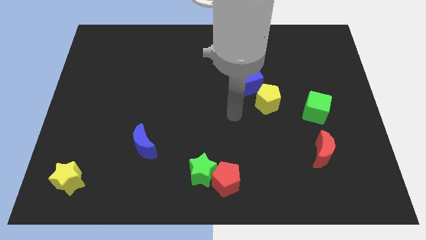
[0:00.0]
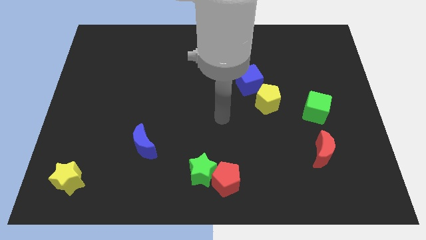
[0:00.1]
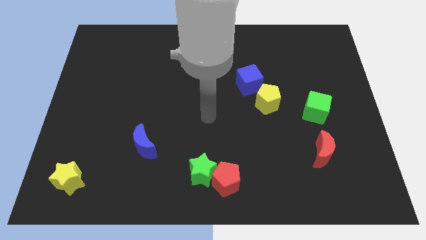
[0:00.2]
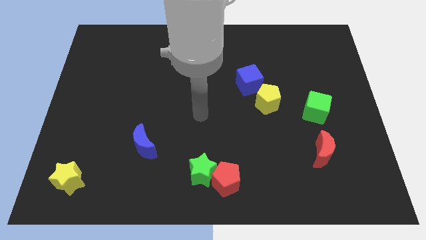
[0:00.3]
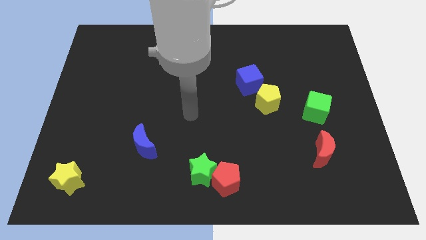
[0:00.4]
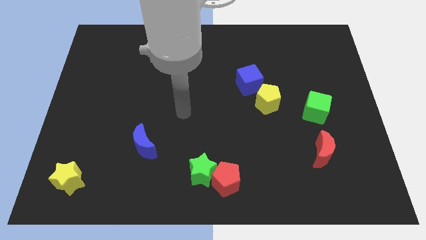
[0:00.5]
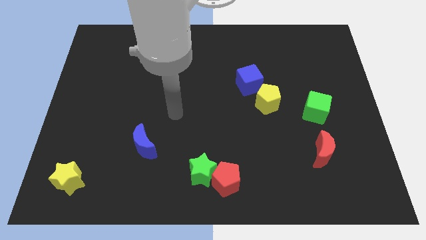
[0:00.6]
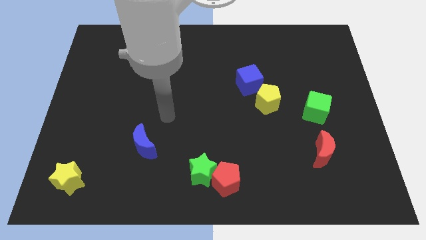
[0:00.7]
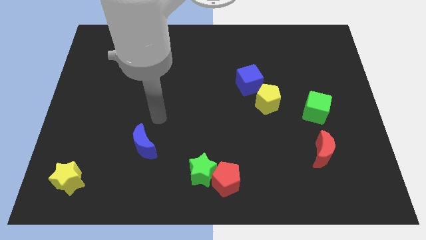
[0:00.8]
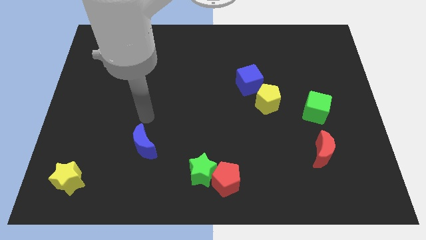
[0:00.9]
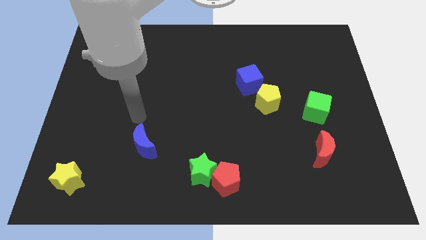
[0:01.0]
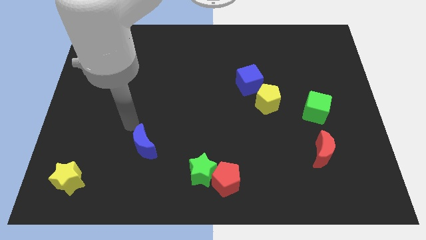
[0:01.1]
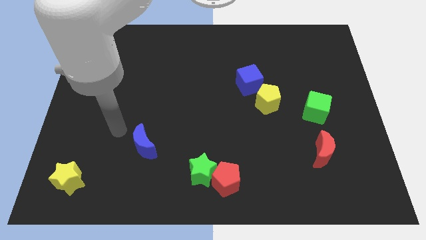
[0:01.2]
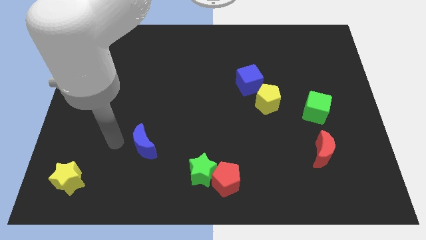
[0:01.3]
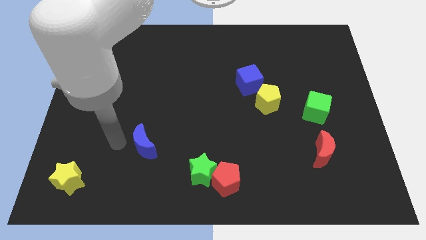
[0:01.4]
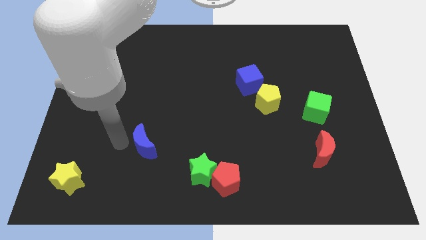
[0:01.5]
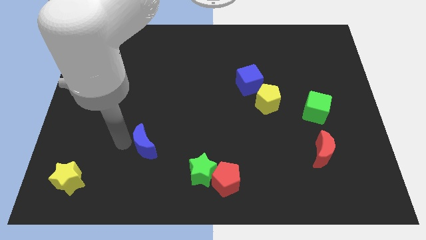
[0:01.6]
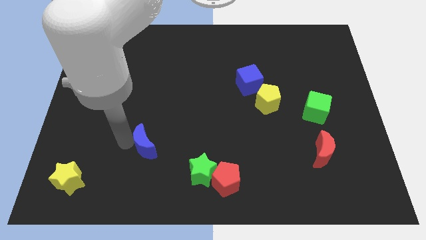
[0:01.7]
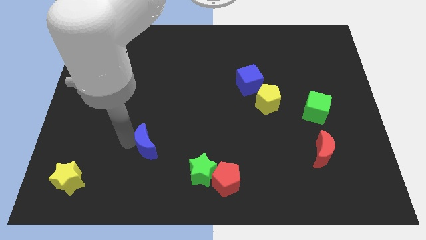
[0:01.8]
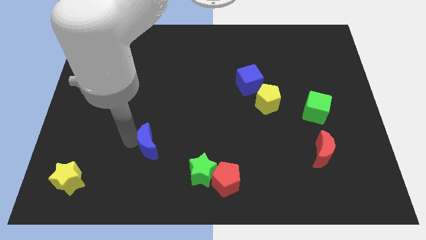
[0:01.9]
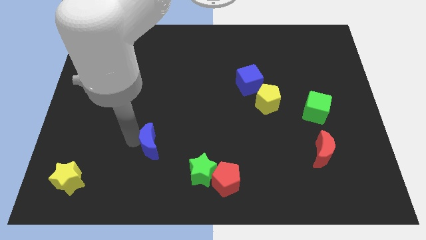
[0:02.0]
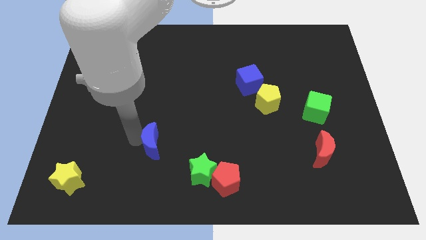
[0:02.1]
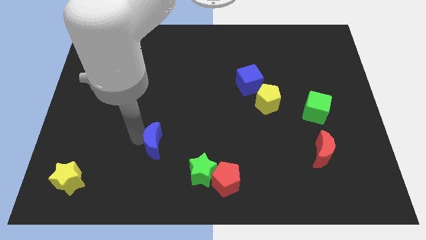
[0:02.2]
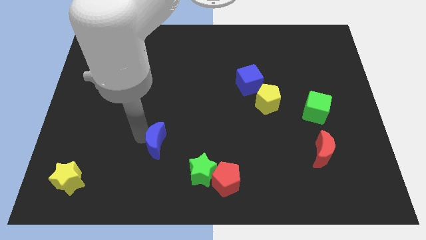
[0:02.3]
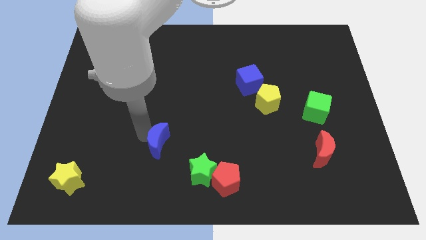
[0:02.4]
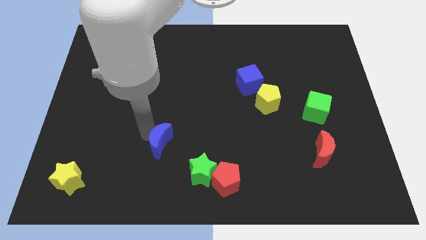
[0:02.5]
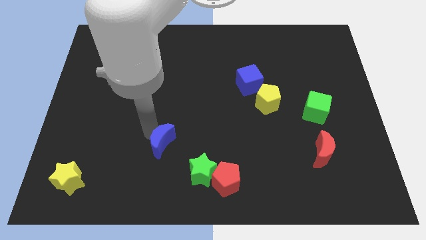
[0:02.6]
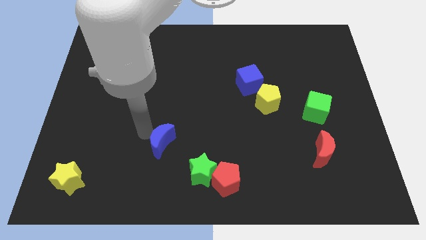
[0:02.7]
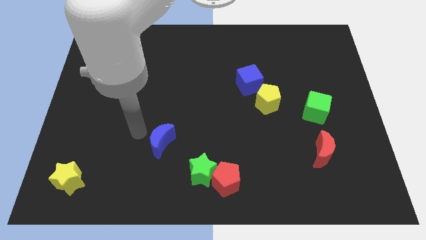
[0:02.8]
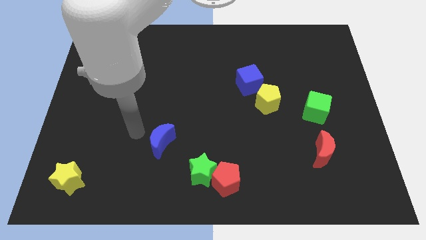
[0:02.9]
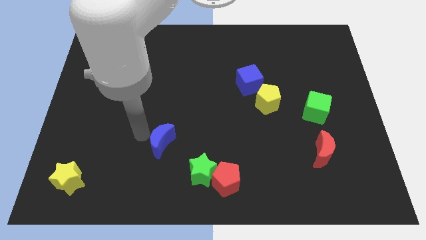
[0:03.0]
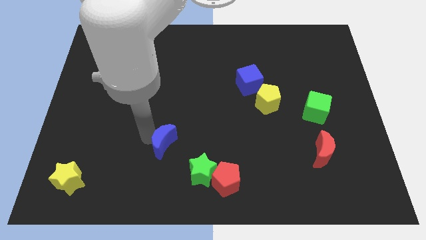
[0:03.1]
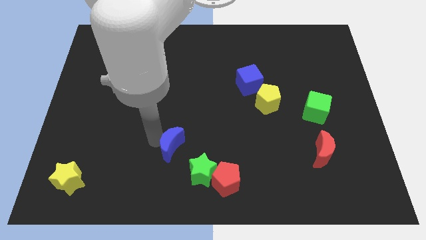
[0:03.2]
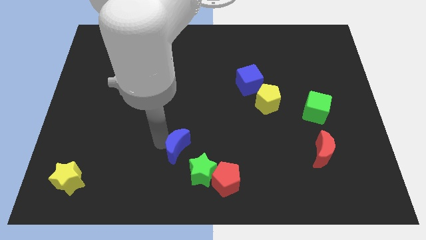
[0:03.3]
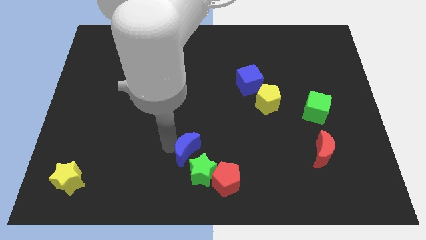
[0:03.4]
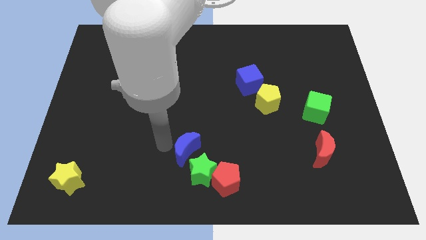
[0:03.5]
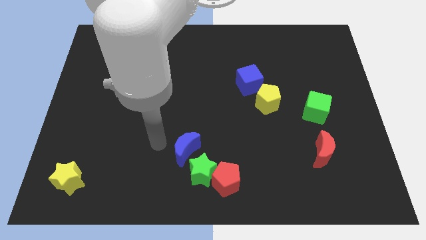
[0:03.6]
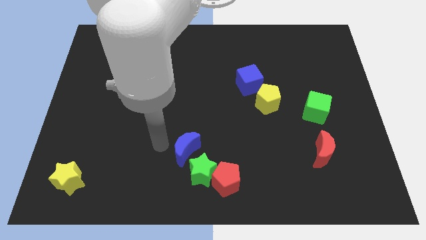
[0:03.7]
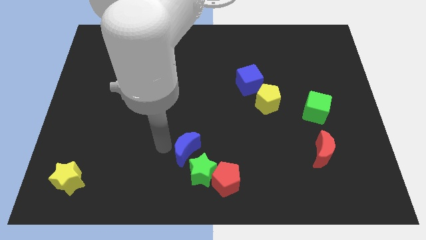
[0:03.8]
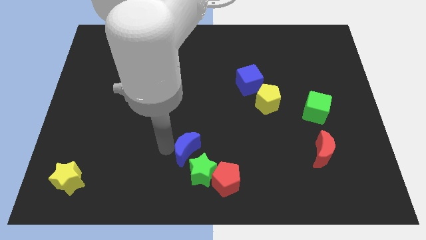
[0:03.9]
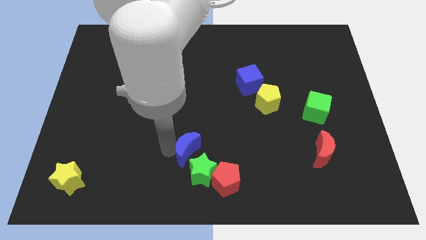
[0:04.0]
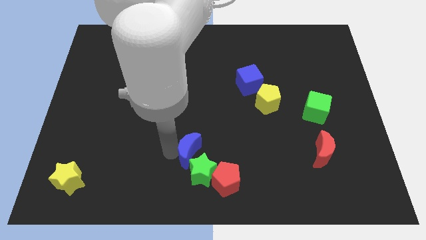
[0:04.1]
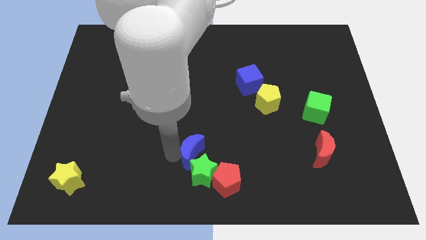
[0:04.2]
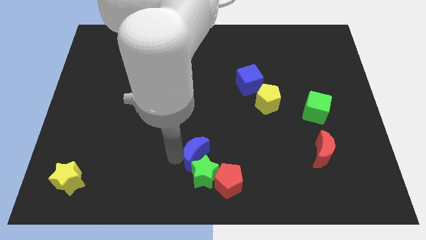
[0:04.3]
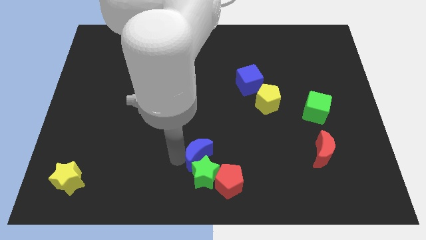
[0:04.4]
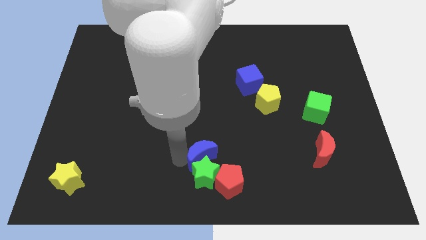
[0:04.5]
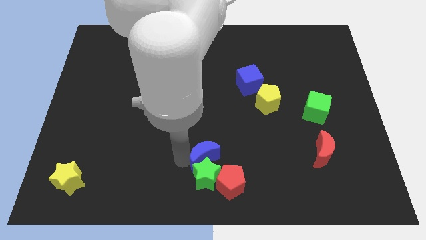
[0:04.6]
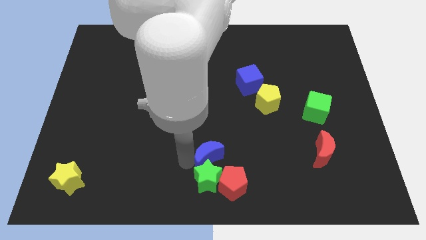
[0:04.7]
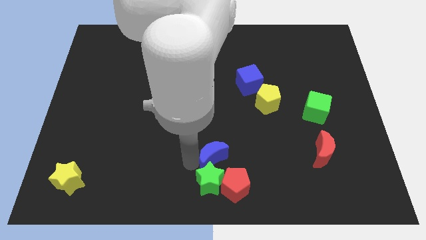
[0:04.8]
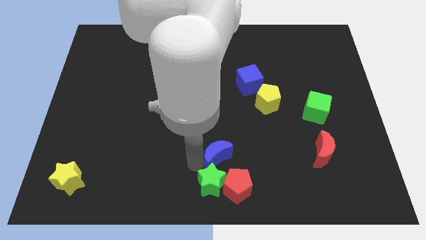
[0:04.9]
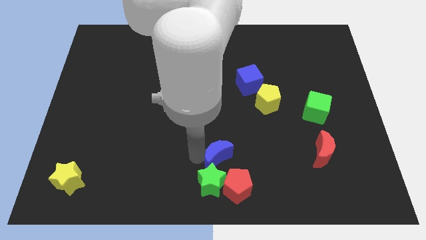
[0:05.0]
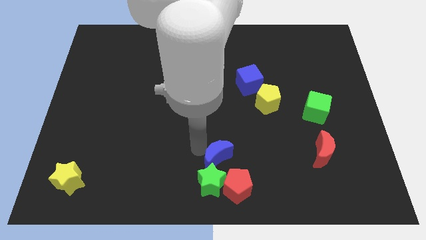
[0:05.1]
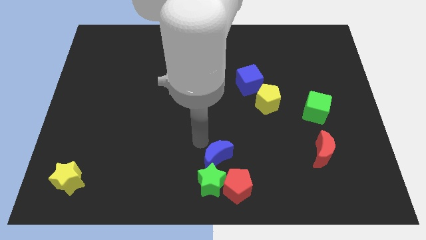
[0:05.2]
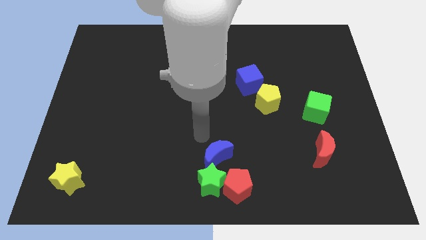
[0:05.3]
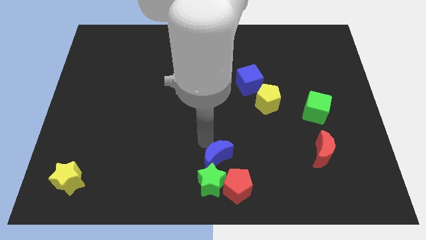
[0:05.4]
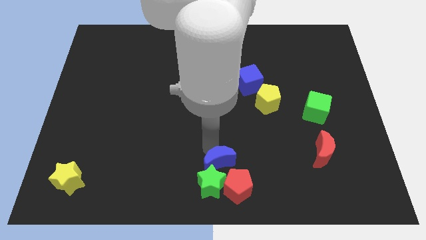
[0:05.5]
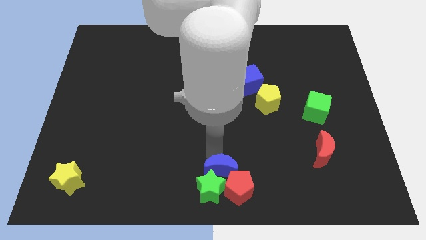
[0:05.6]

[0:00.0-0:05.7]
push the blue moon close to the red pentagon

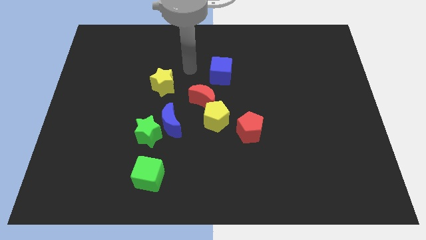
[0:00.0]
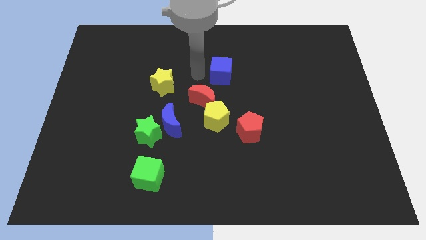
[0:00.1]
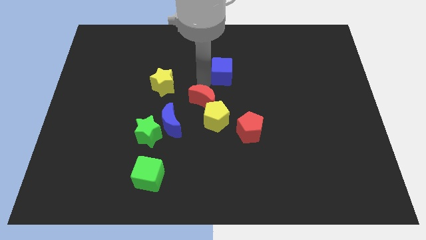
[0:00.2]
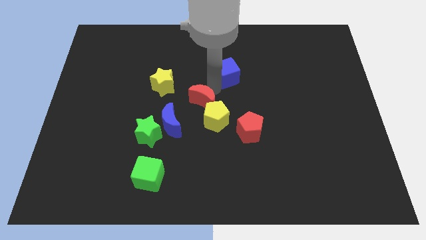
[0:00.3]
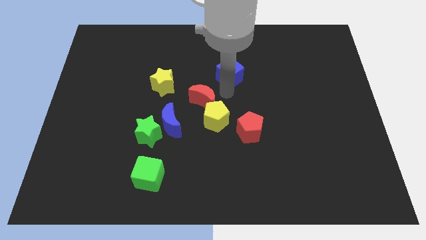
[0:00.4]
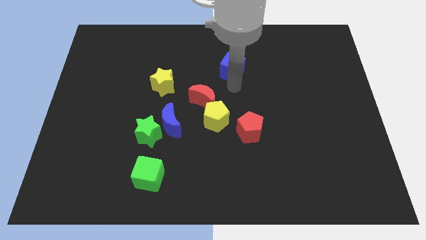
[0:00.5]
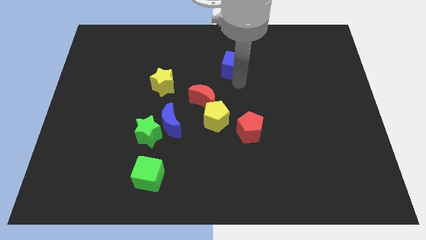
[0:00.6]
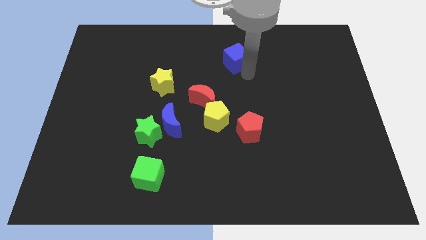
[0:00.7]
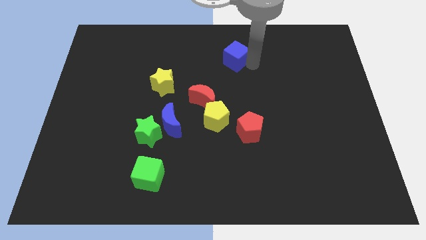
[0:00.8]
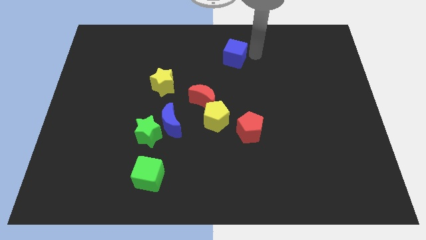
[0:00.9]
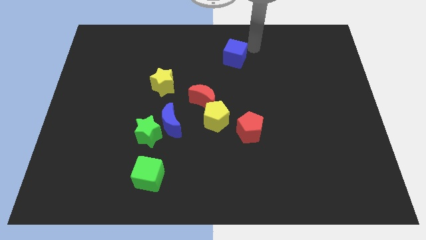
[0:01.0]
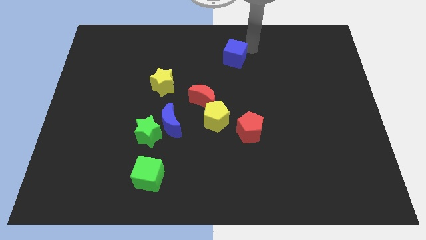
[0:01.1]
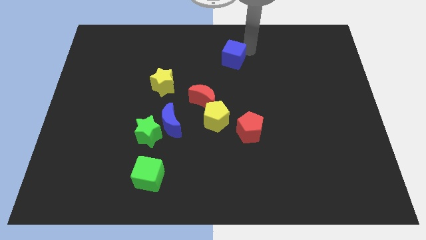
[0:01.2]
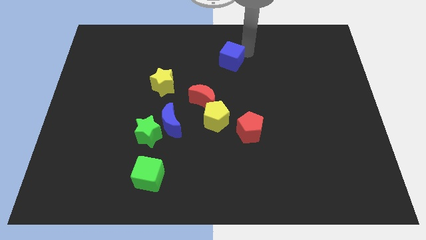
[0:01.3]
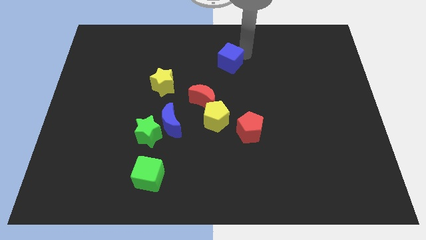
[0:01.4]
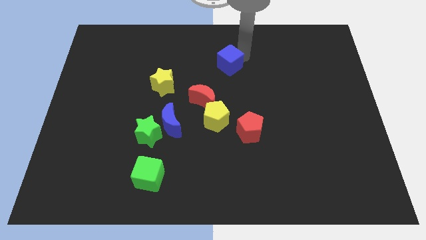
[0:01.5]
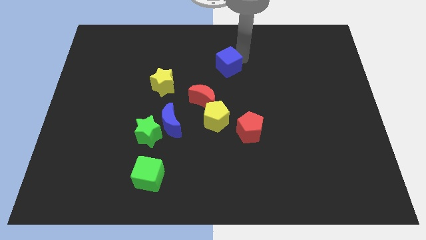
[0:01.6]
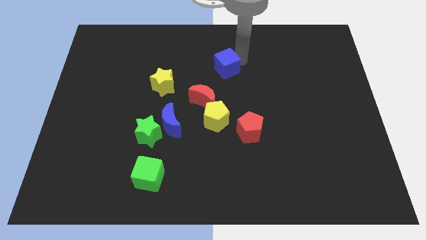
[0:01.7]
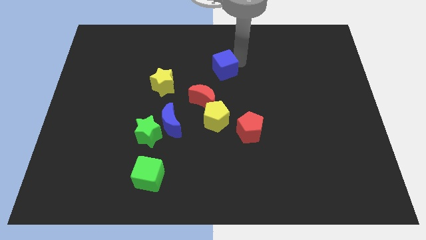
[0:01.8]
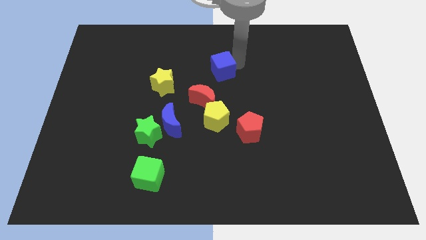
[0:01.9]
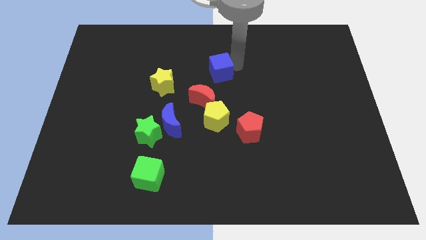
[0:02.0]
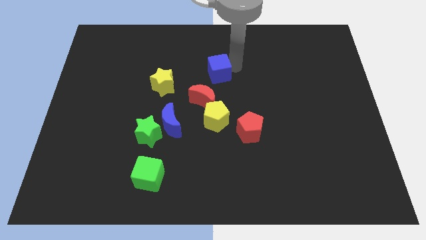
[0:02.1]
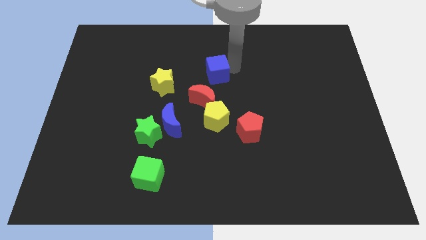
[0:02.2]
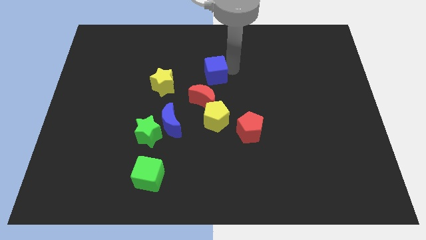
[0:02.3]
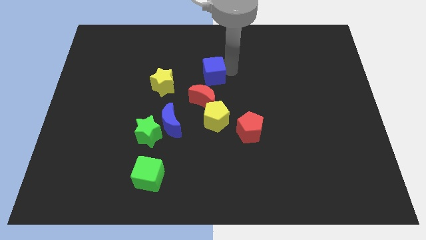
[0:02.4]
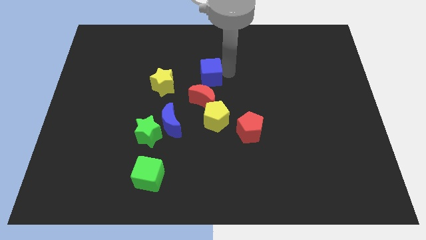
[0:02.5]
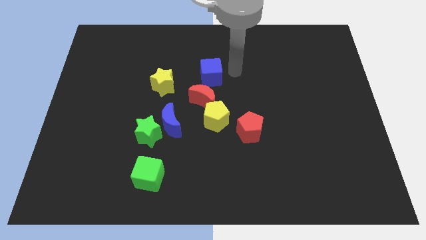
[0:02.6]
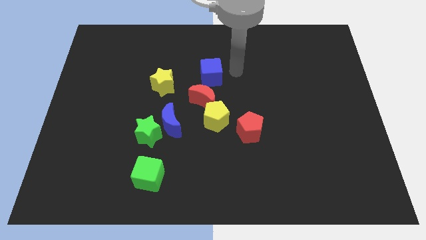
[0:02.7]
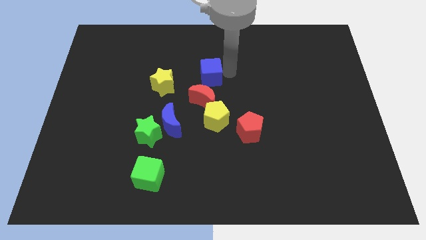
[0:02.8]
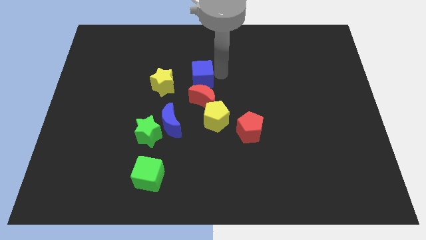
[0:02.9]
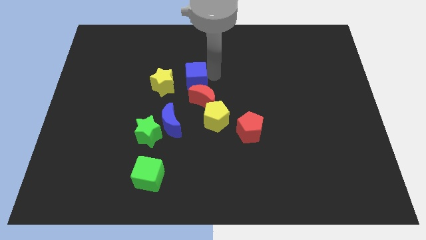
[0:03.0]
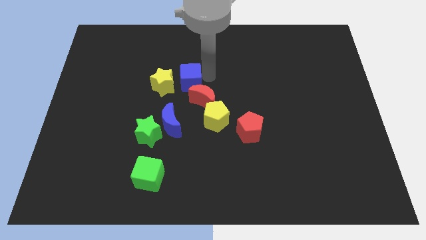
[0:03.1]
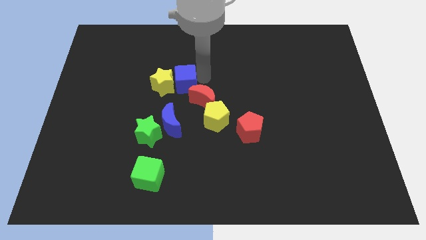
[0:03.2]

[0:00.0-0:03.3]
slide the blue cube close to the yellow star
